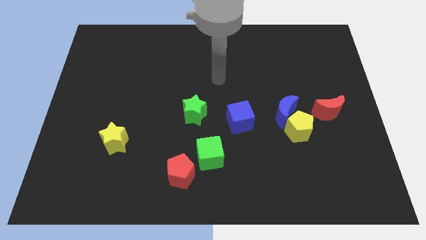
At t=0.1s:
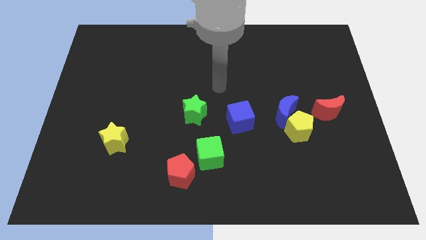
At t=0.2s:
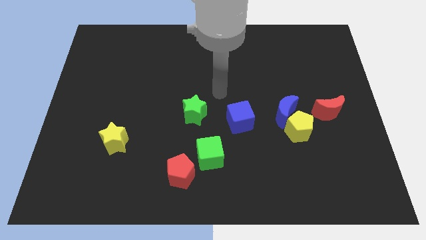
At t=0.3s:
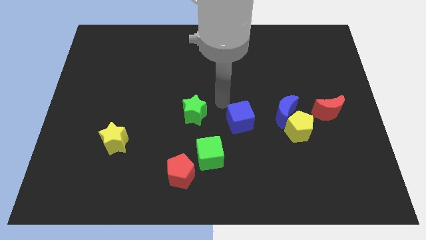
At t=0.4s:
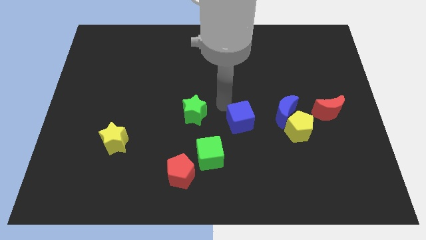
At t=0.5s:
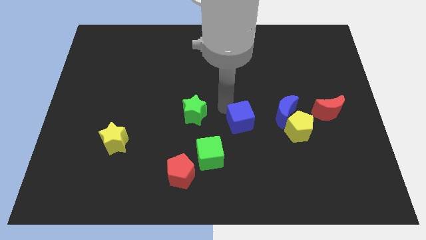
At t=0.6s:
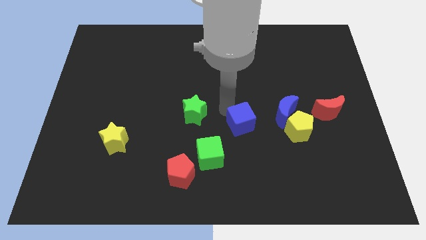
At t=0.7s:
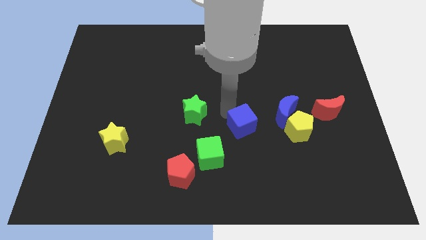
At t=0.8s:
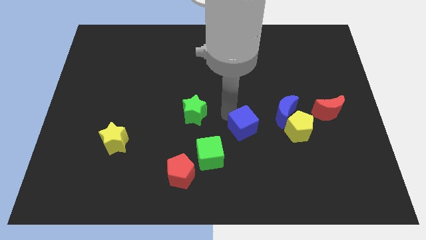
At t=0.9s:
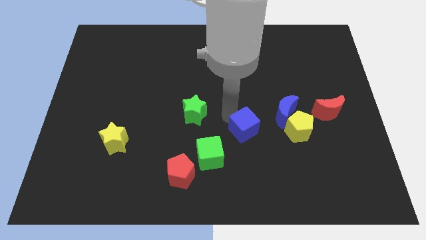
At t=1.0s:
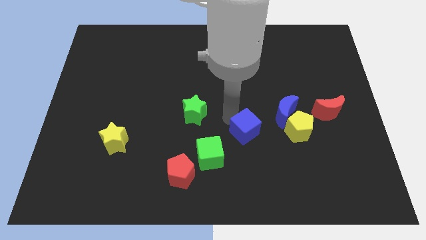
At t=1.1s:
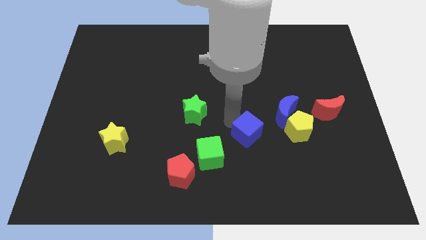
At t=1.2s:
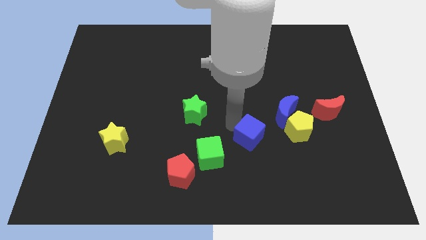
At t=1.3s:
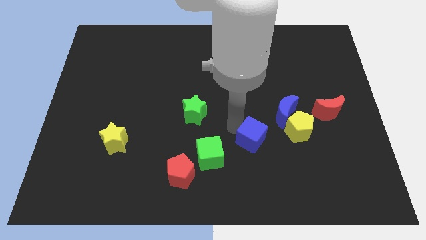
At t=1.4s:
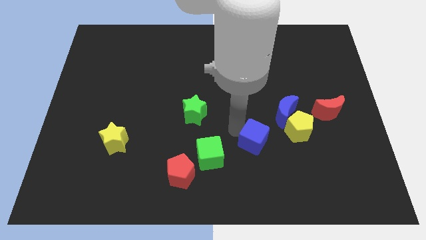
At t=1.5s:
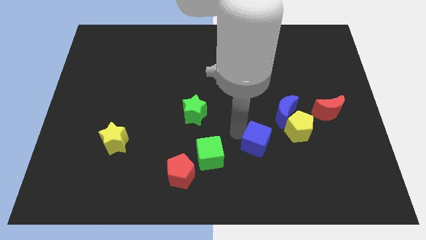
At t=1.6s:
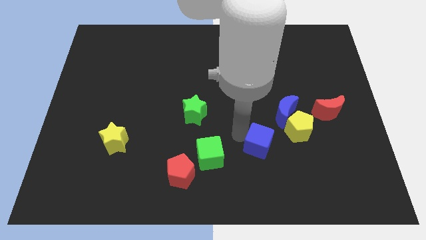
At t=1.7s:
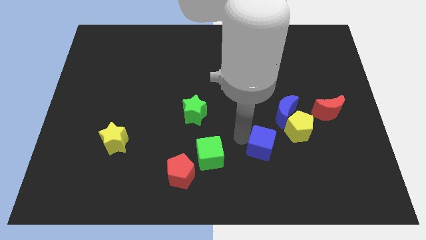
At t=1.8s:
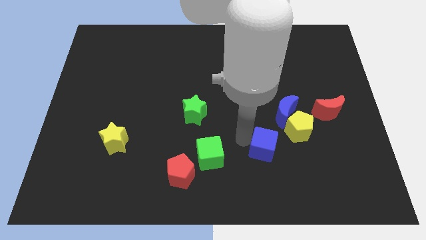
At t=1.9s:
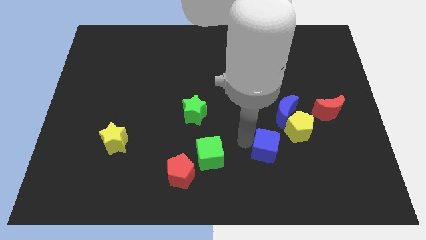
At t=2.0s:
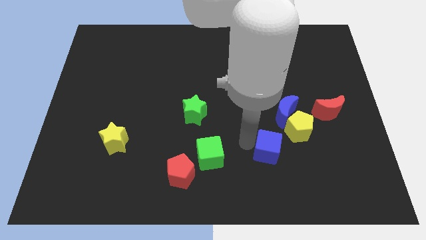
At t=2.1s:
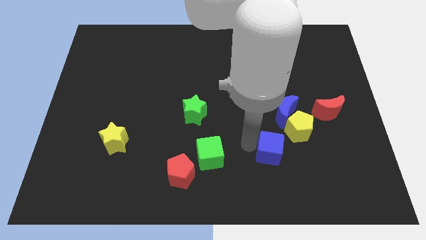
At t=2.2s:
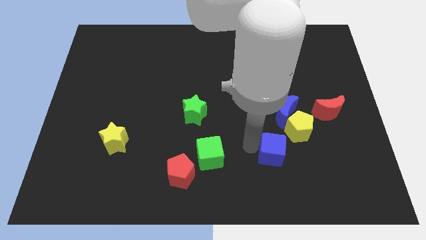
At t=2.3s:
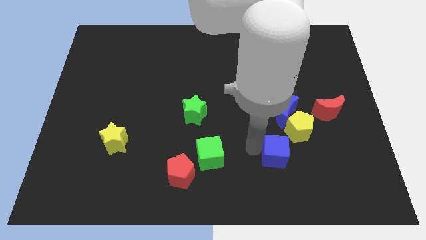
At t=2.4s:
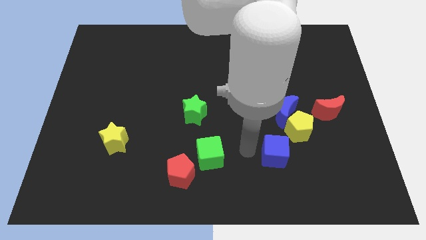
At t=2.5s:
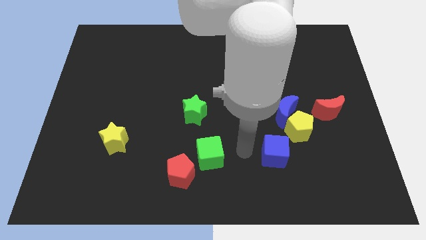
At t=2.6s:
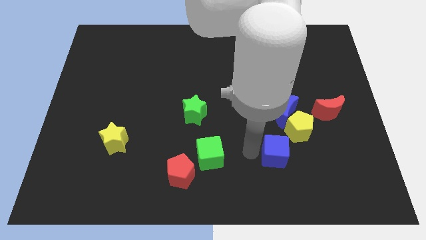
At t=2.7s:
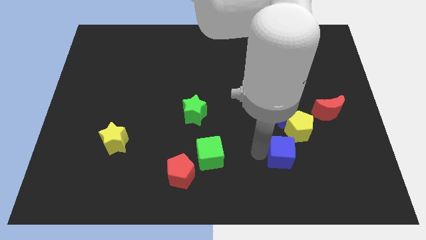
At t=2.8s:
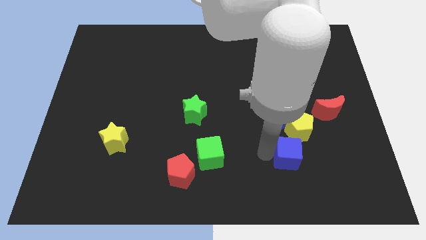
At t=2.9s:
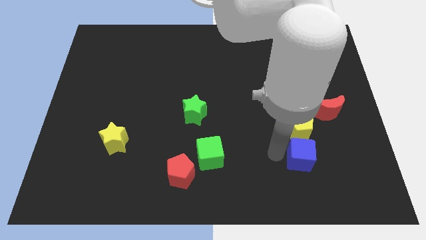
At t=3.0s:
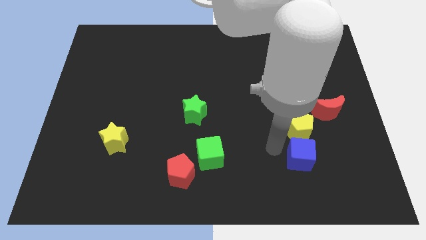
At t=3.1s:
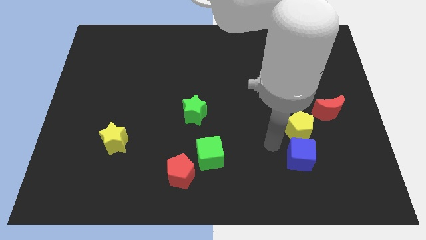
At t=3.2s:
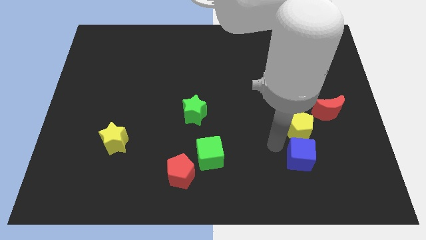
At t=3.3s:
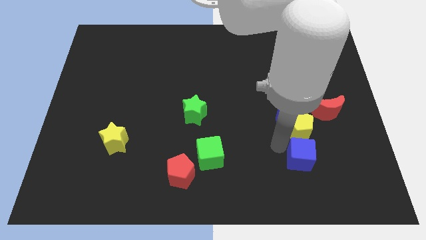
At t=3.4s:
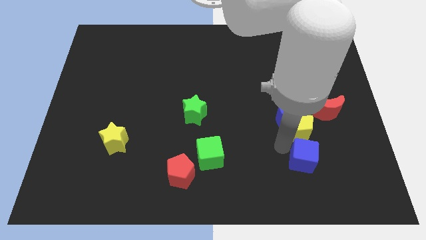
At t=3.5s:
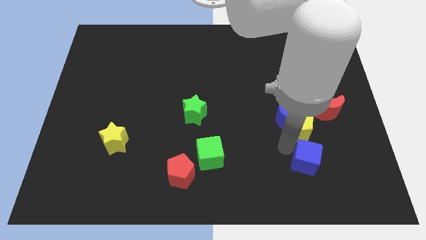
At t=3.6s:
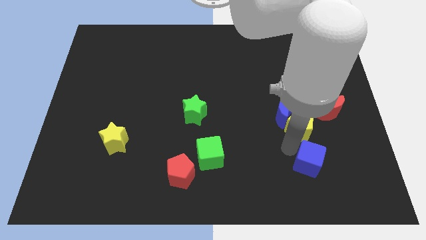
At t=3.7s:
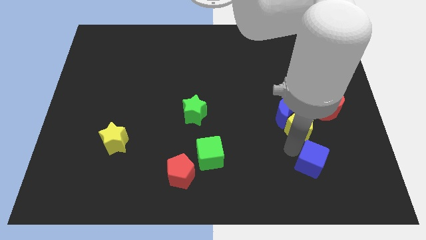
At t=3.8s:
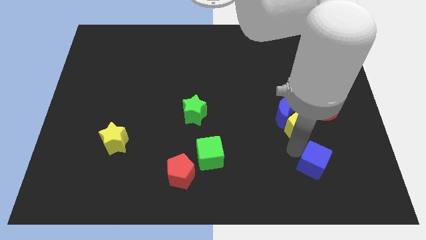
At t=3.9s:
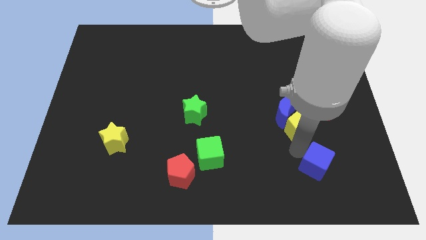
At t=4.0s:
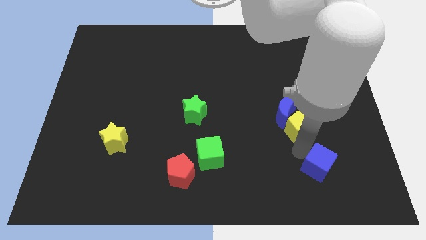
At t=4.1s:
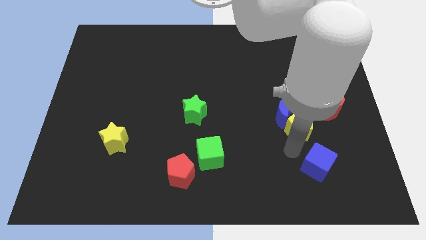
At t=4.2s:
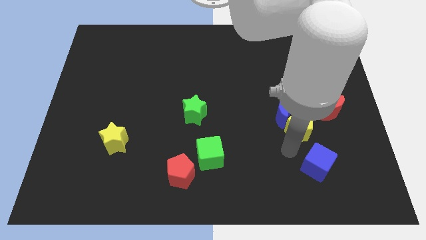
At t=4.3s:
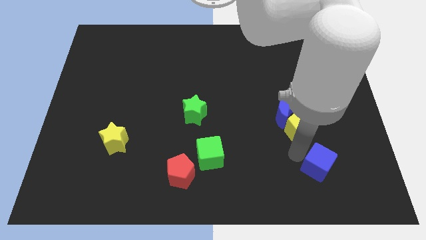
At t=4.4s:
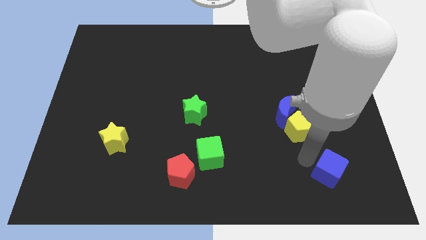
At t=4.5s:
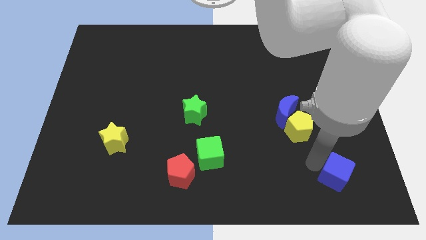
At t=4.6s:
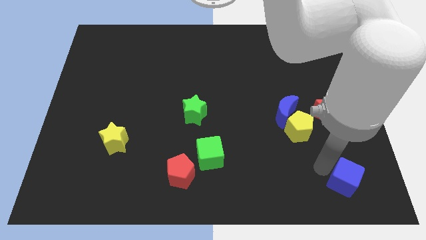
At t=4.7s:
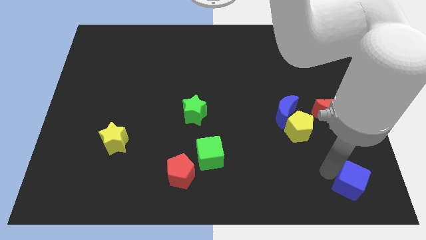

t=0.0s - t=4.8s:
move the blue cube to the bottom right of the board

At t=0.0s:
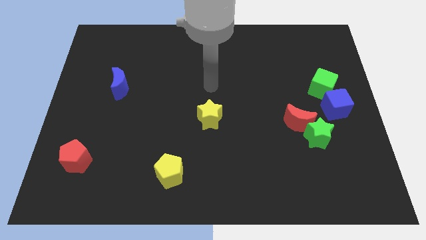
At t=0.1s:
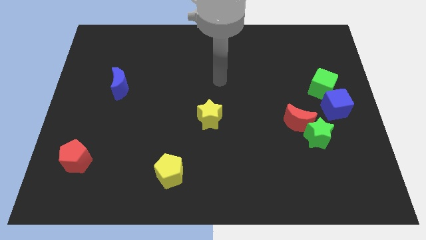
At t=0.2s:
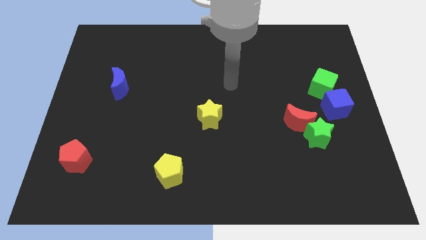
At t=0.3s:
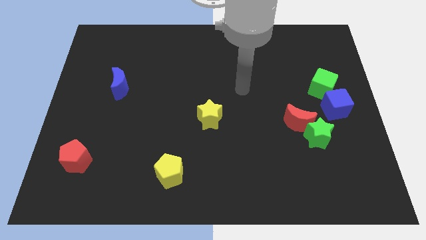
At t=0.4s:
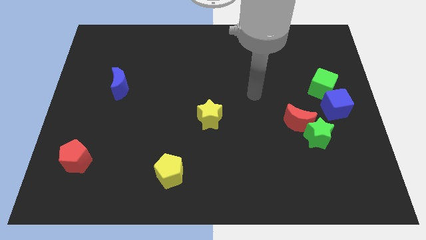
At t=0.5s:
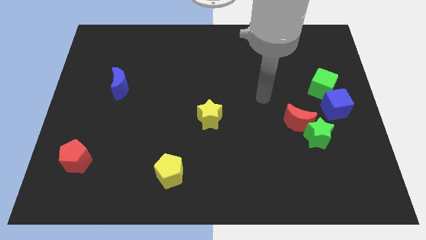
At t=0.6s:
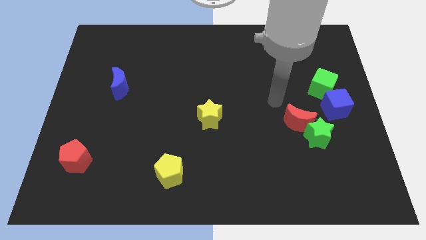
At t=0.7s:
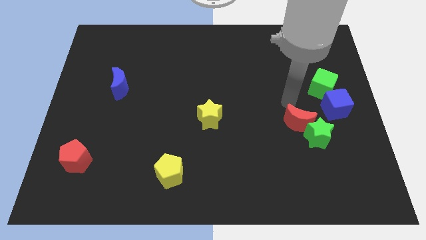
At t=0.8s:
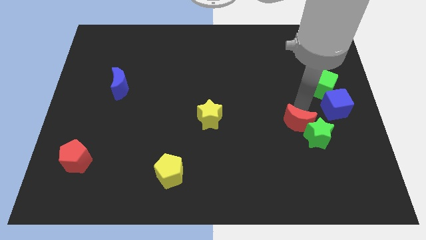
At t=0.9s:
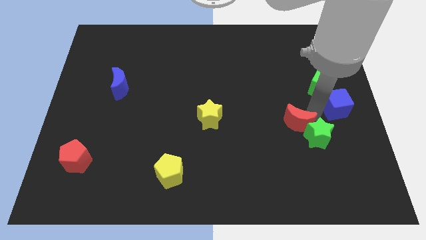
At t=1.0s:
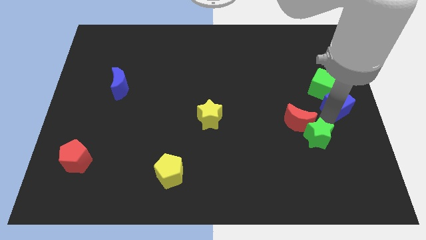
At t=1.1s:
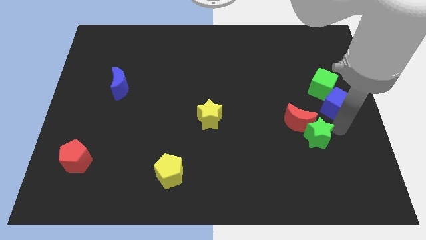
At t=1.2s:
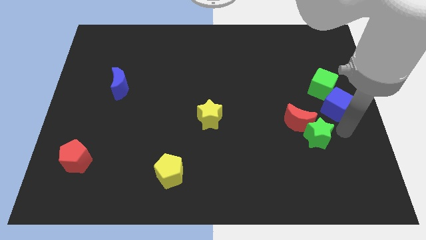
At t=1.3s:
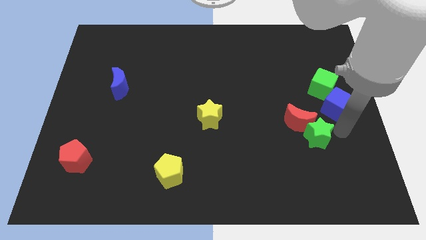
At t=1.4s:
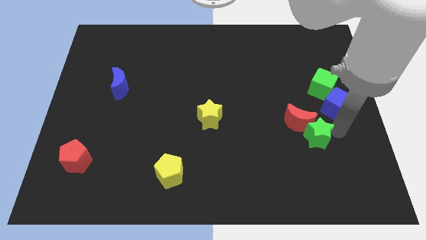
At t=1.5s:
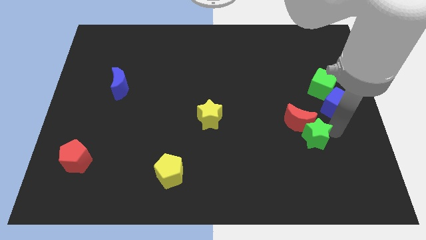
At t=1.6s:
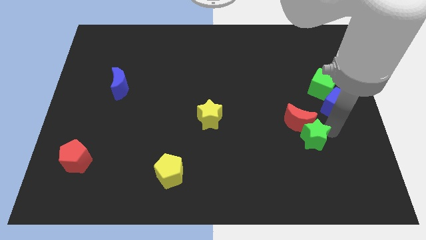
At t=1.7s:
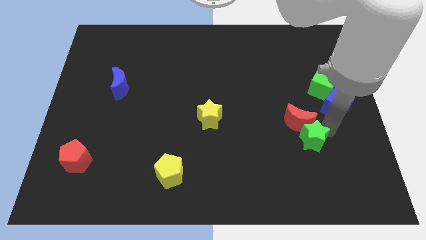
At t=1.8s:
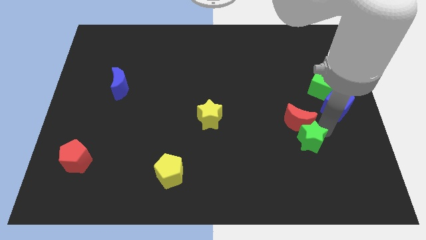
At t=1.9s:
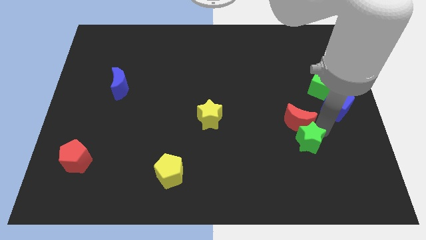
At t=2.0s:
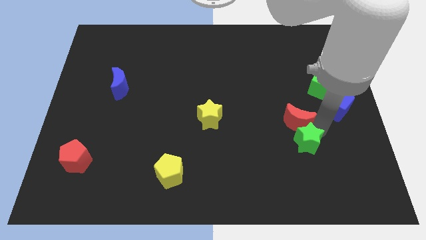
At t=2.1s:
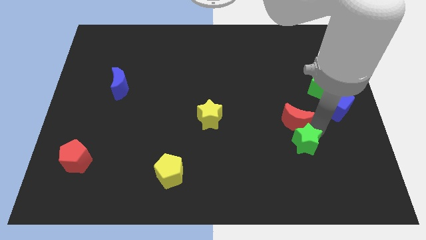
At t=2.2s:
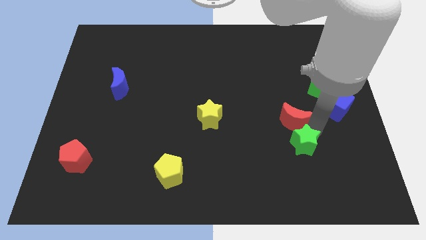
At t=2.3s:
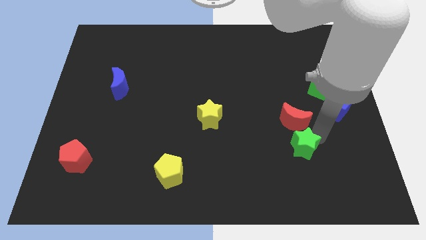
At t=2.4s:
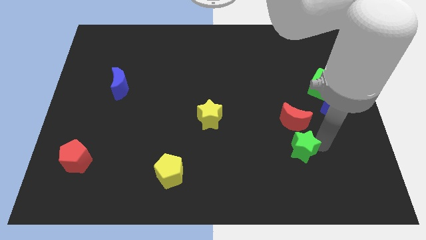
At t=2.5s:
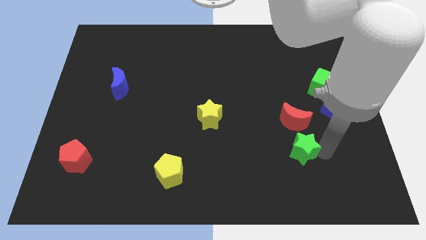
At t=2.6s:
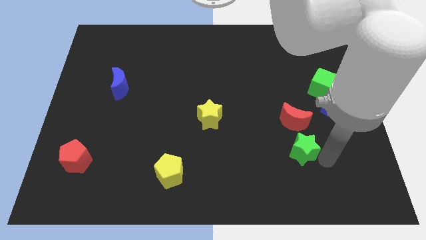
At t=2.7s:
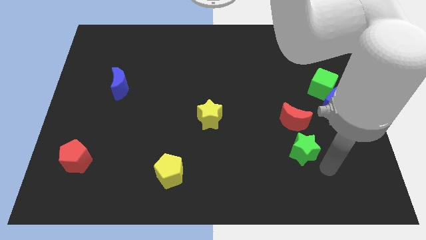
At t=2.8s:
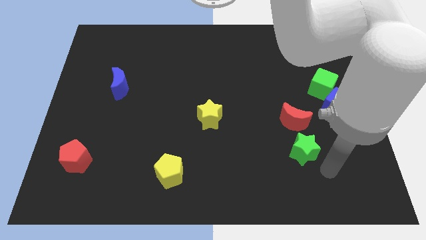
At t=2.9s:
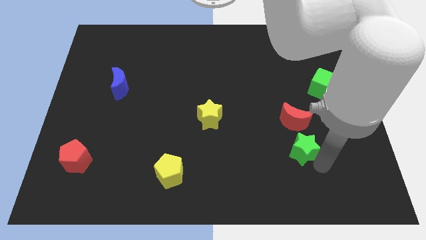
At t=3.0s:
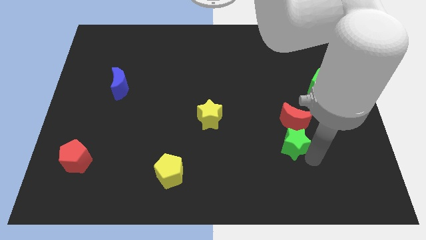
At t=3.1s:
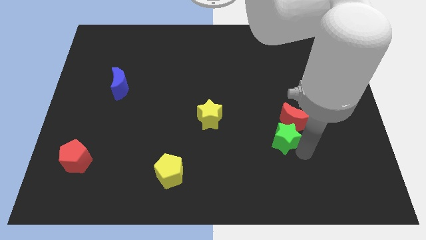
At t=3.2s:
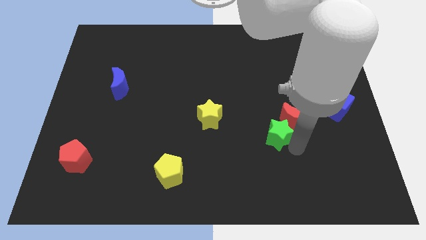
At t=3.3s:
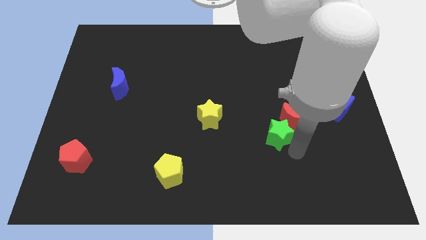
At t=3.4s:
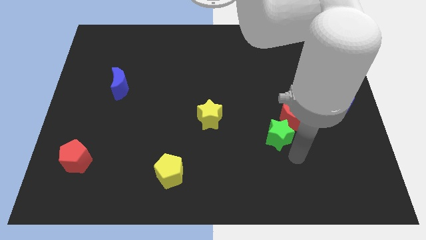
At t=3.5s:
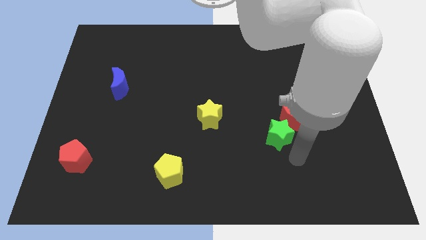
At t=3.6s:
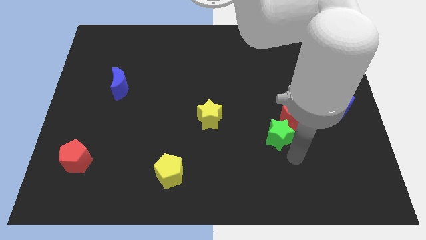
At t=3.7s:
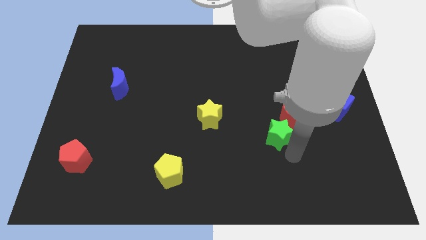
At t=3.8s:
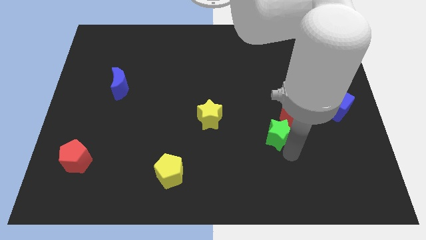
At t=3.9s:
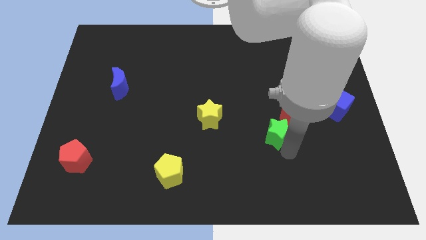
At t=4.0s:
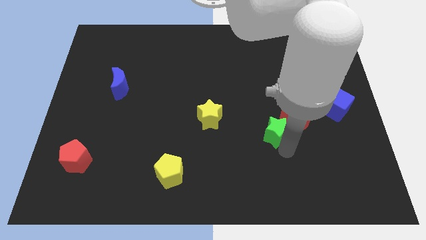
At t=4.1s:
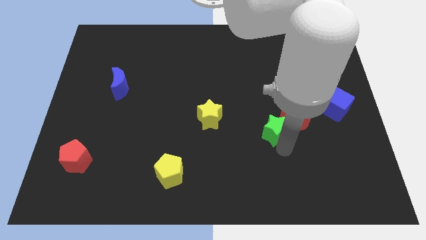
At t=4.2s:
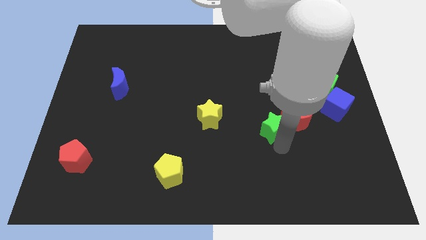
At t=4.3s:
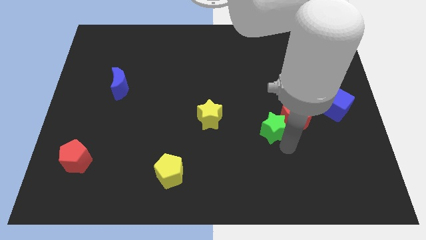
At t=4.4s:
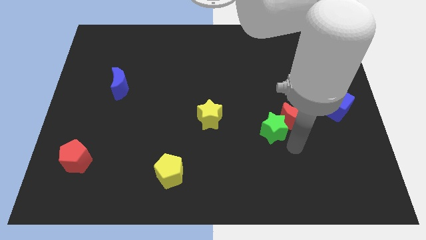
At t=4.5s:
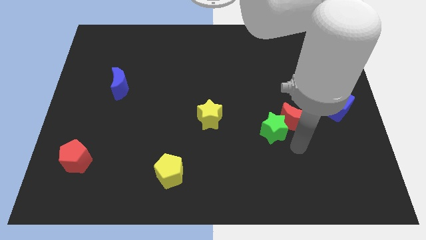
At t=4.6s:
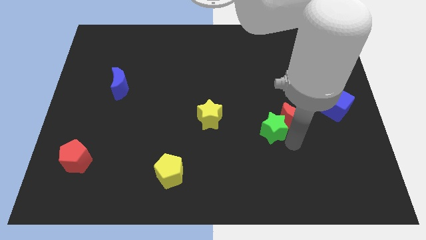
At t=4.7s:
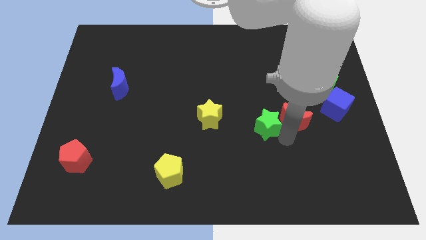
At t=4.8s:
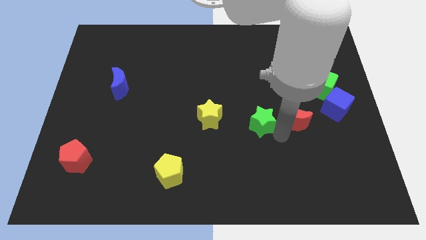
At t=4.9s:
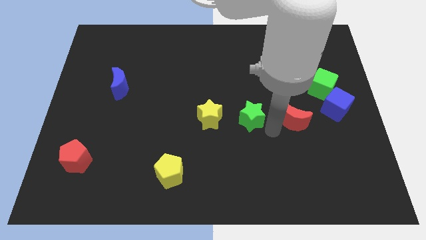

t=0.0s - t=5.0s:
slide the green star to the center
